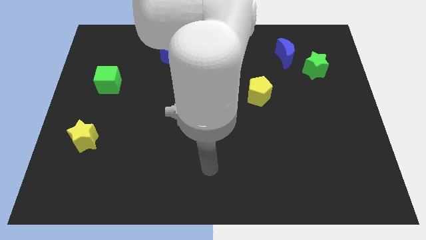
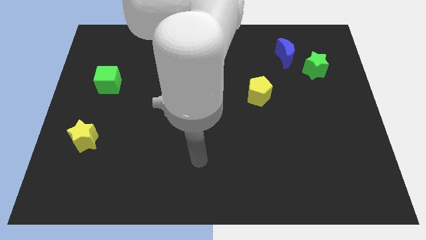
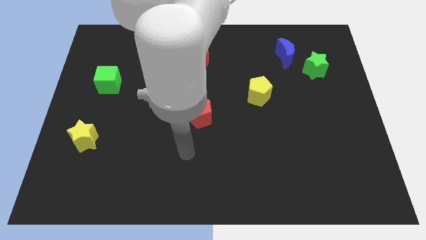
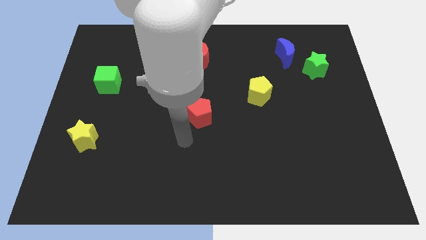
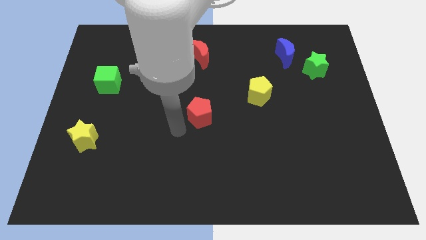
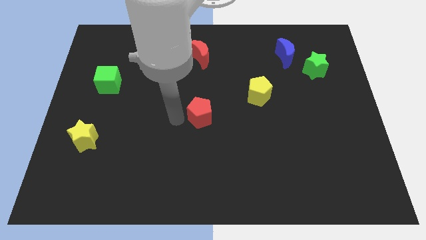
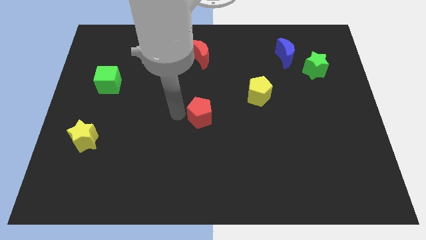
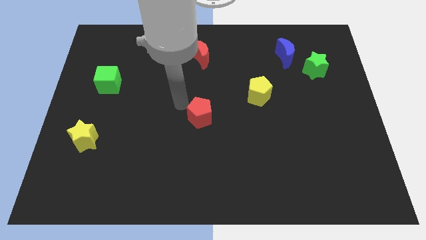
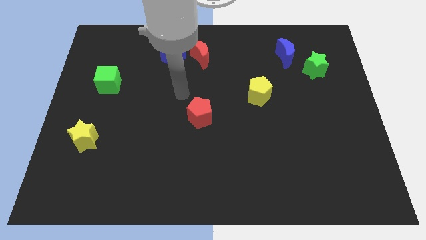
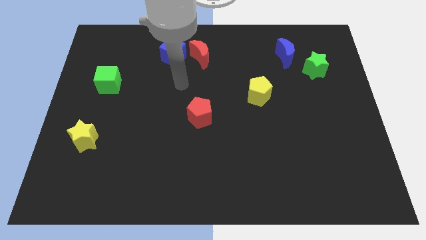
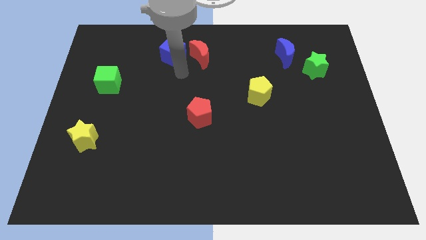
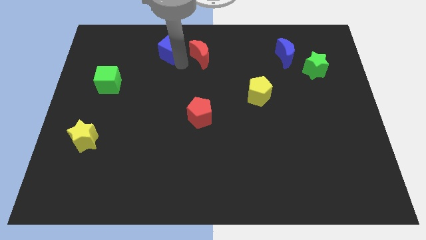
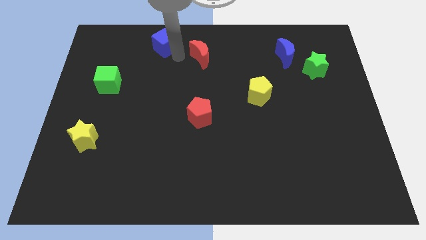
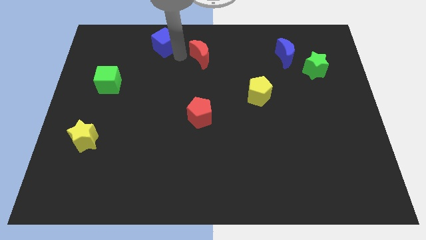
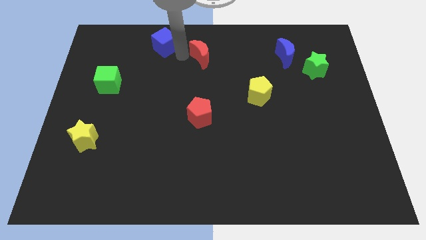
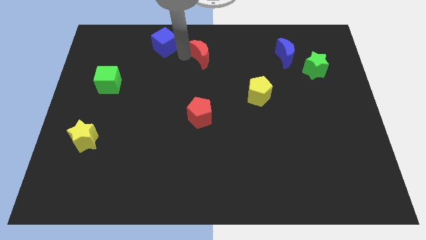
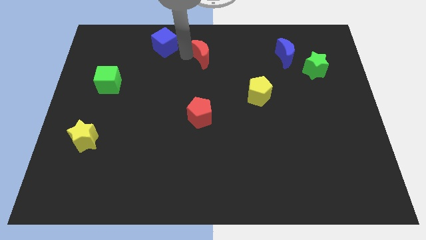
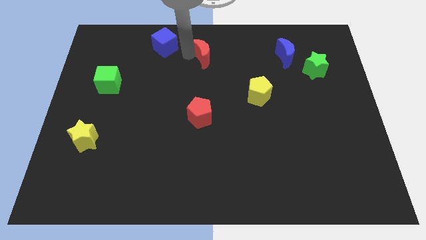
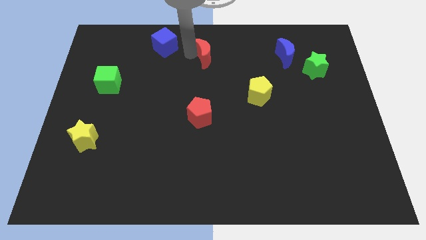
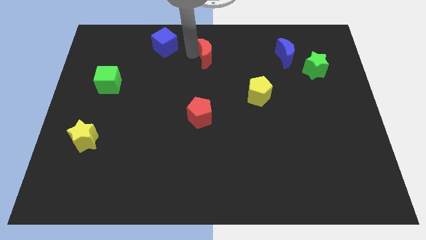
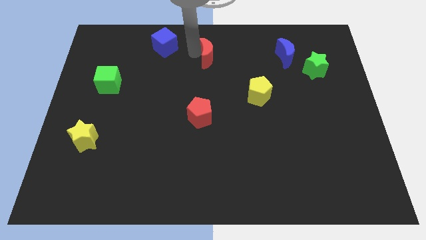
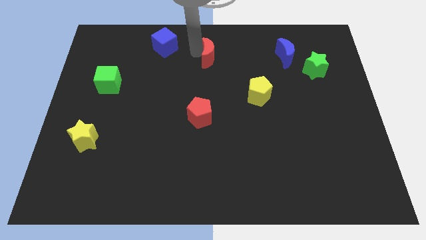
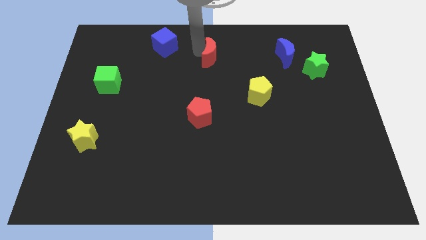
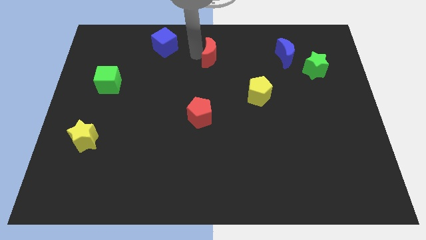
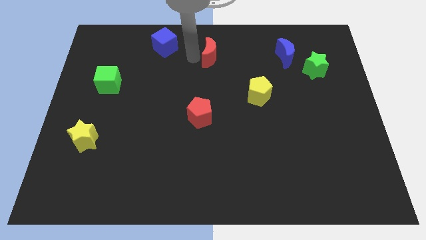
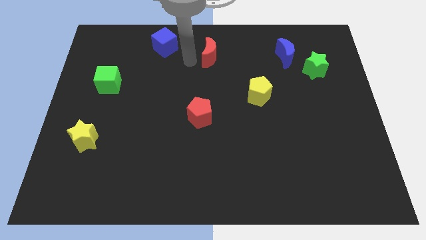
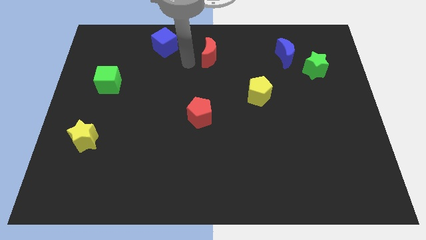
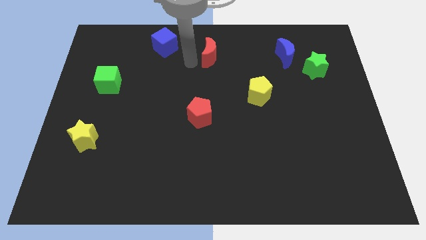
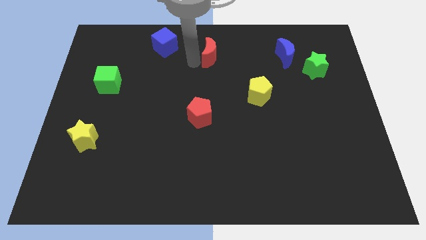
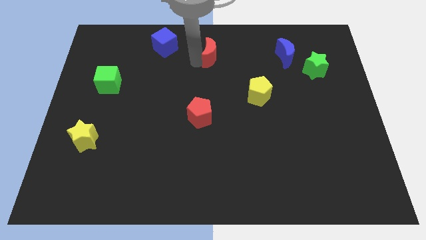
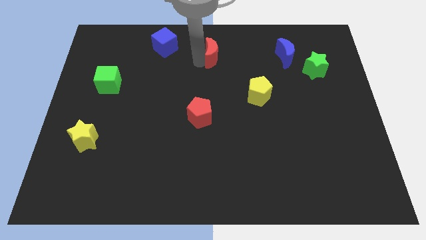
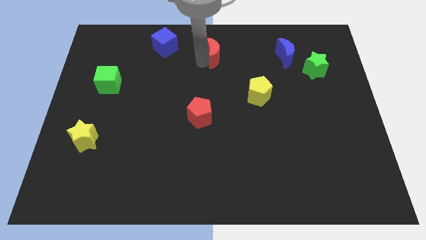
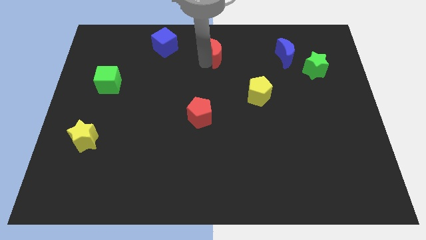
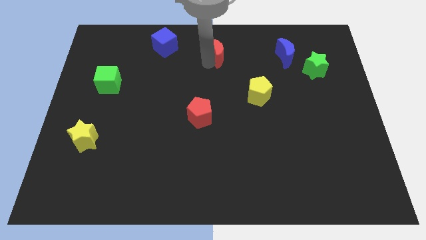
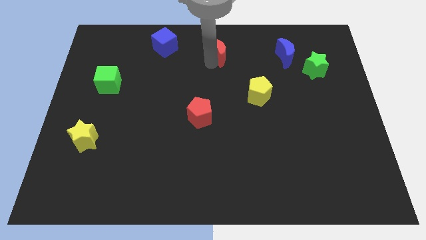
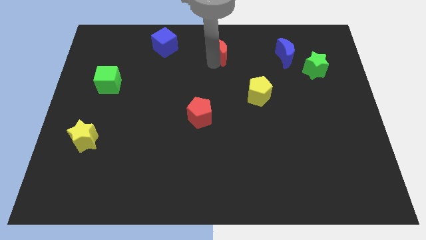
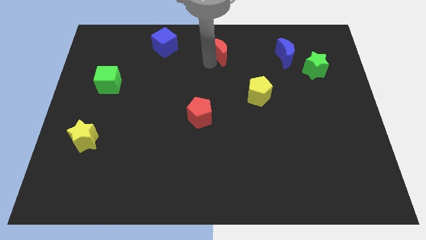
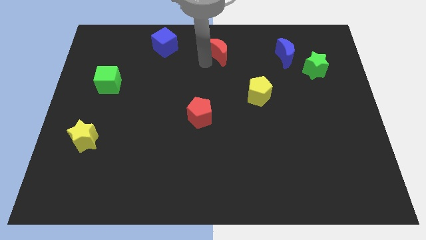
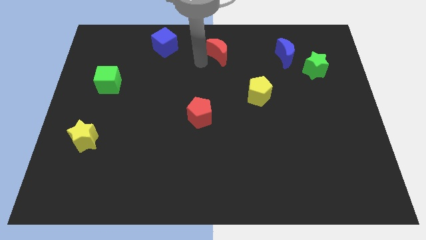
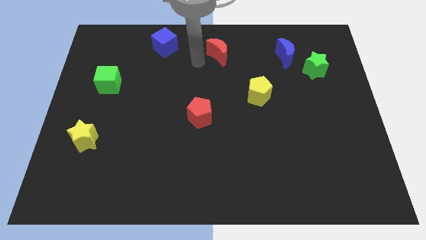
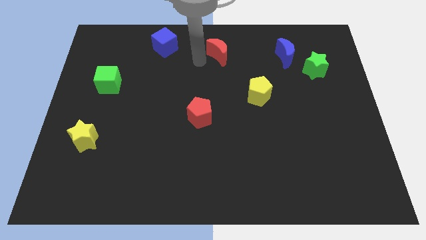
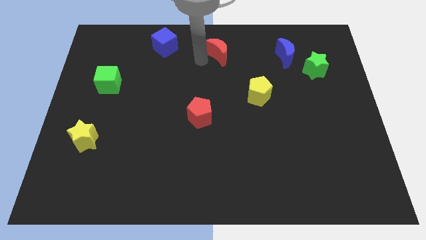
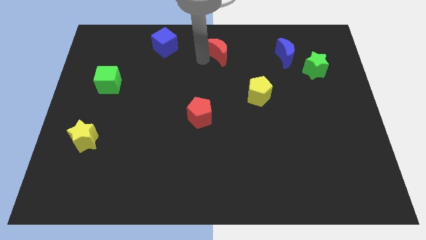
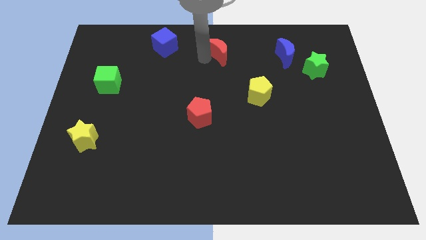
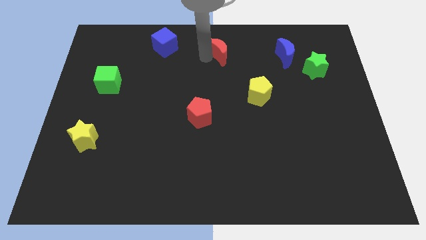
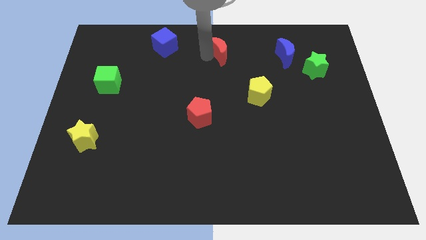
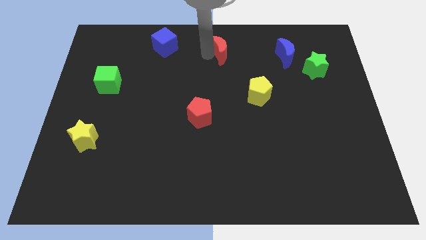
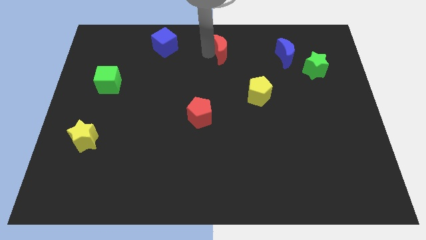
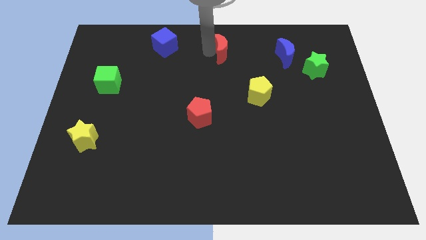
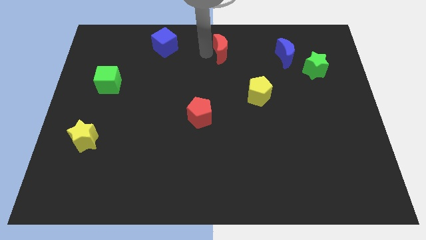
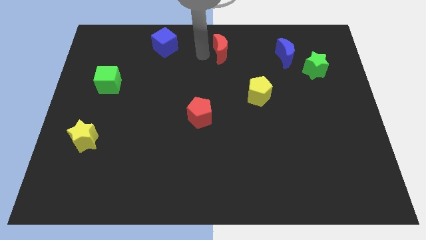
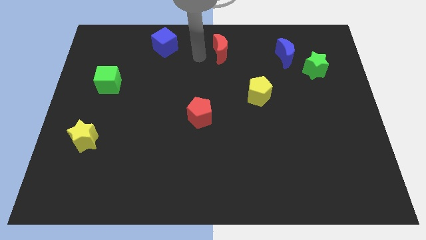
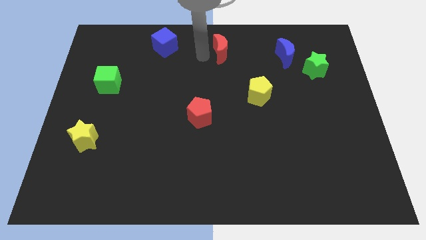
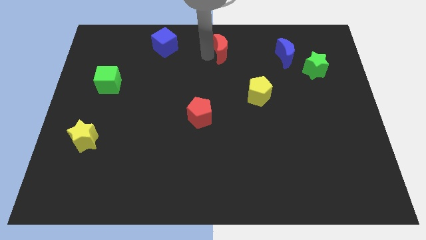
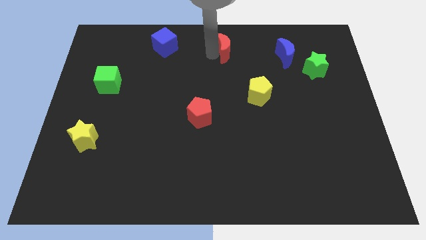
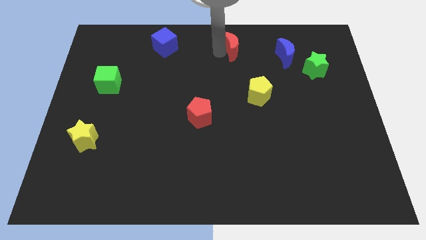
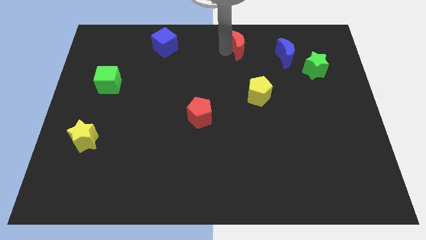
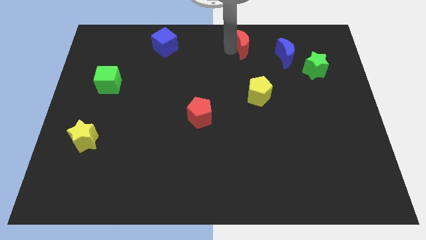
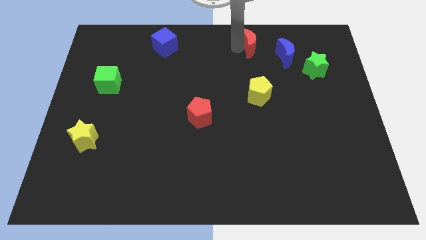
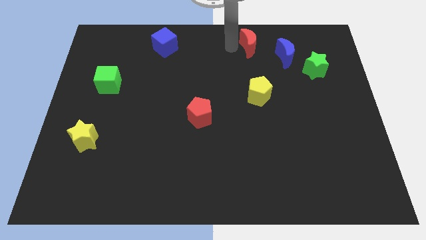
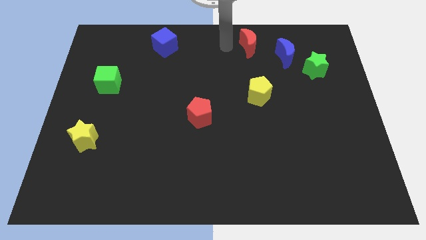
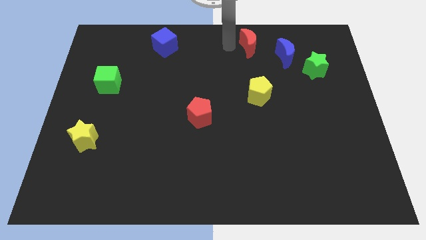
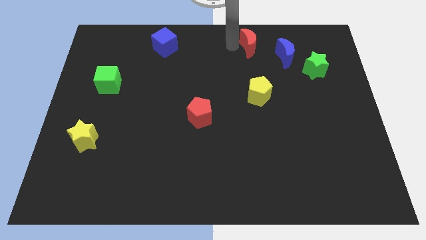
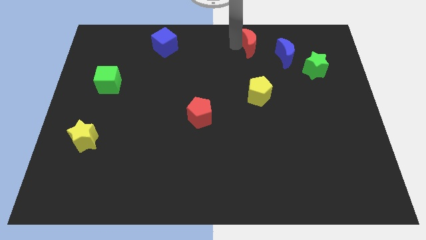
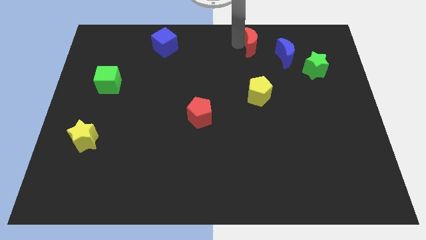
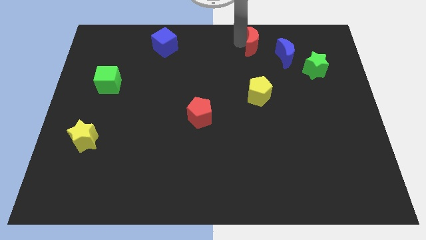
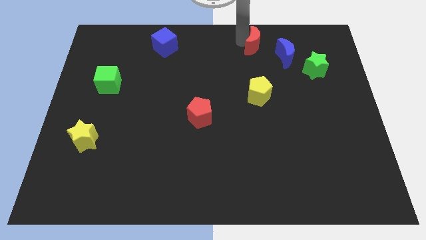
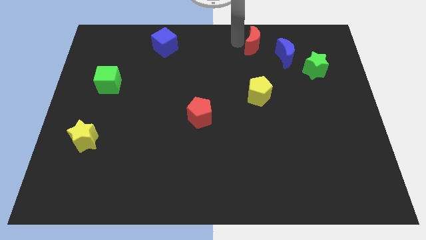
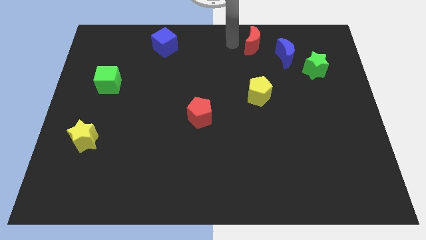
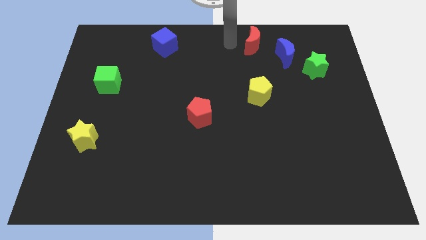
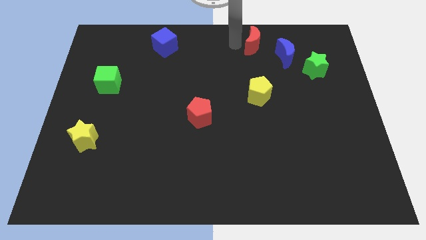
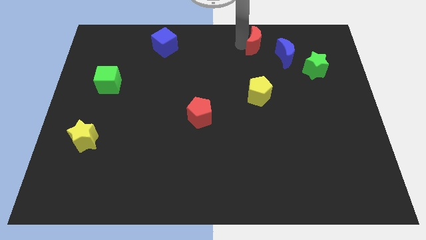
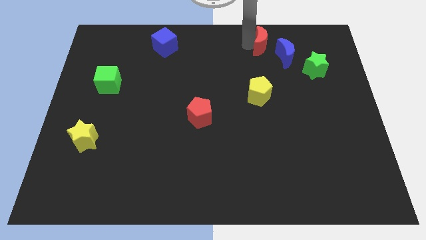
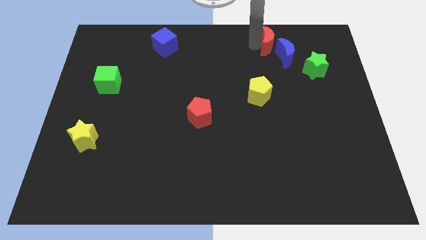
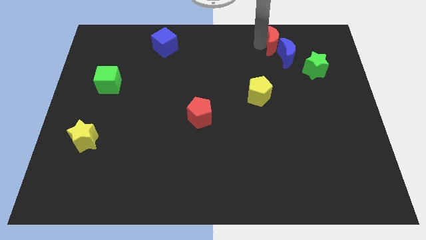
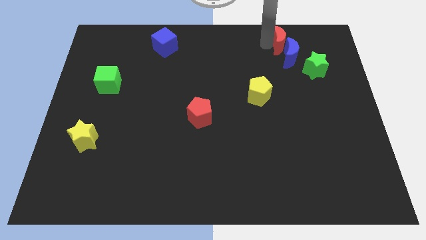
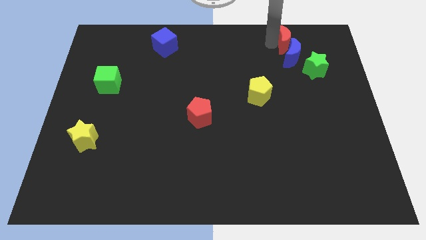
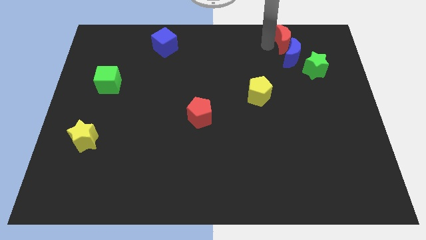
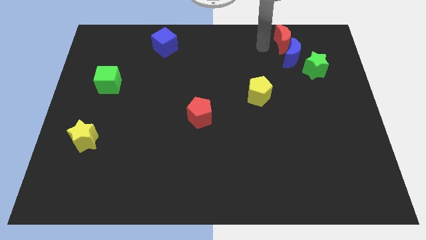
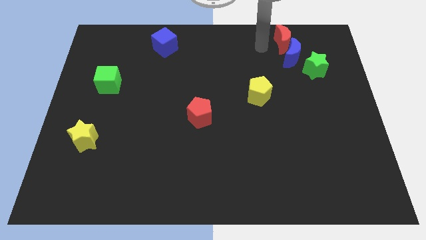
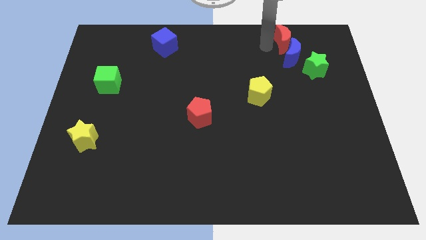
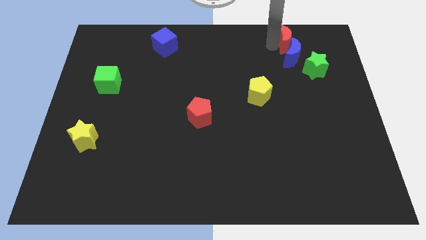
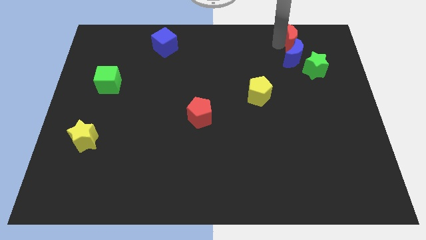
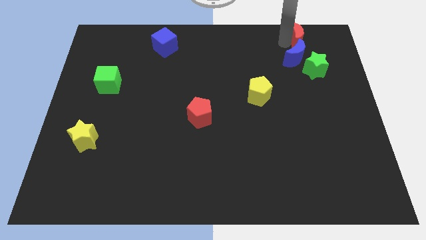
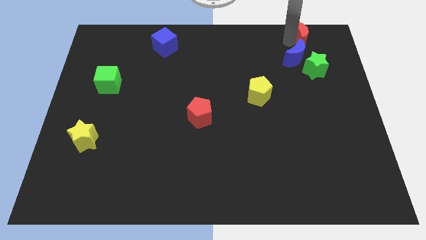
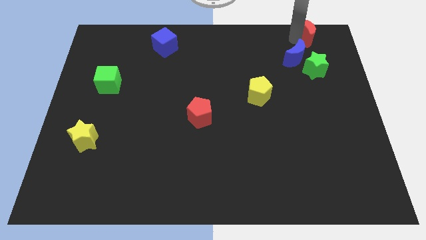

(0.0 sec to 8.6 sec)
slide the red moon to the top right of the board
